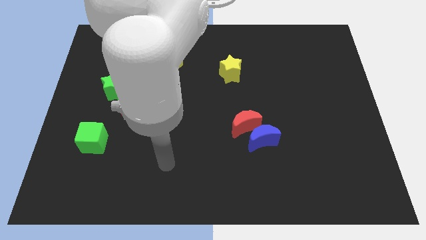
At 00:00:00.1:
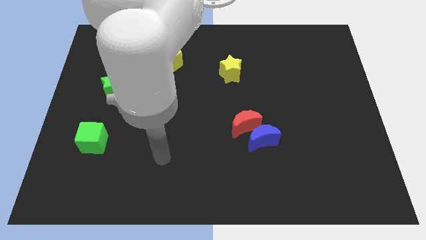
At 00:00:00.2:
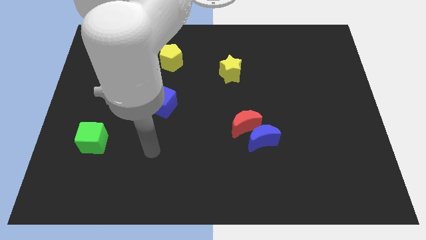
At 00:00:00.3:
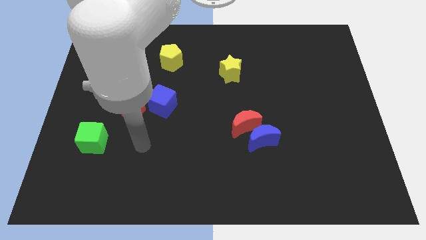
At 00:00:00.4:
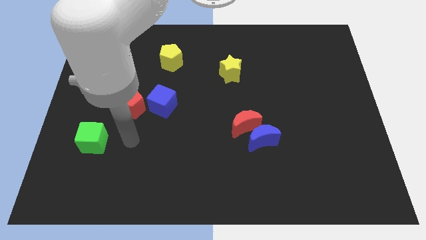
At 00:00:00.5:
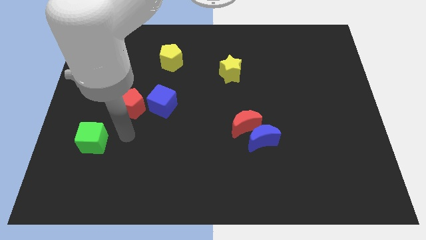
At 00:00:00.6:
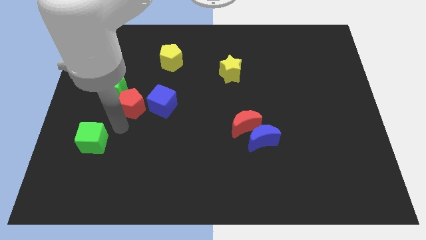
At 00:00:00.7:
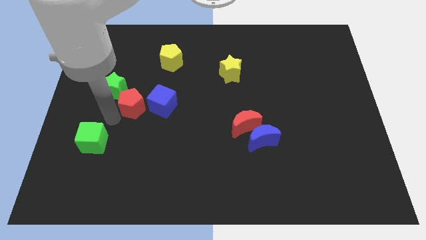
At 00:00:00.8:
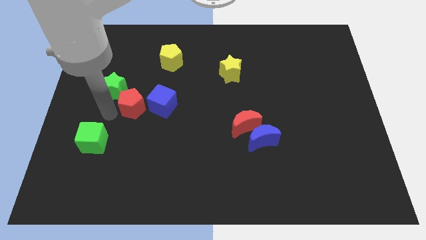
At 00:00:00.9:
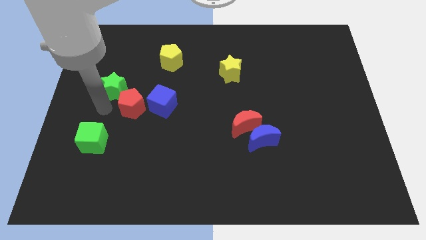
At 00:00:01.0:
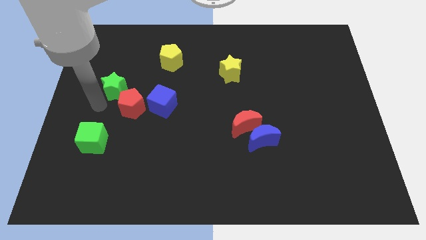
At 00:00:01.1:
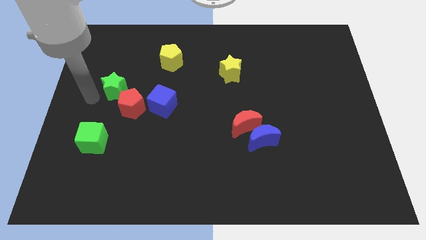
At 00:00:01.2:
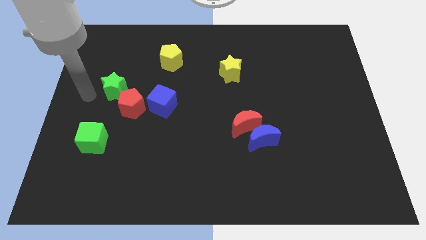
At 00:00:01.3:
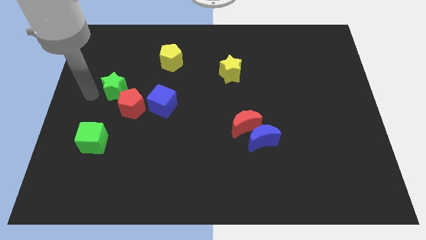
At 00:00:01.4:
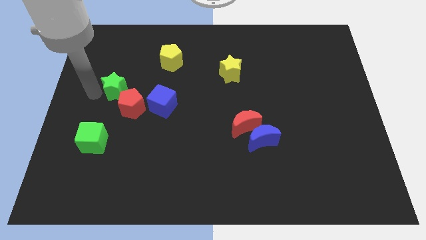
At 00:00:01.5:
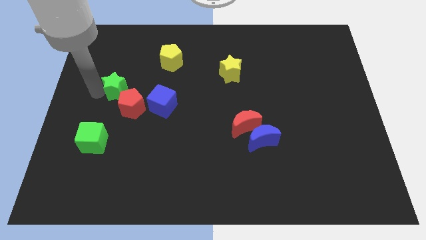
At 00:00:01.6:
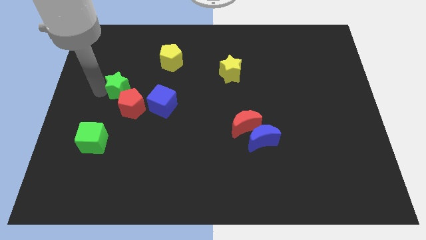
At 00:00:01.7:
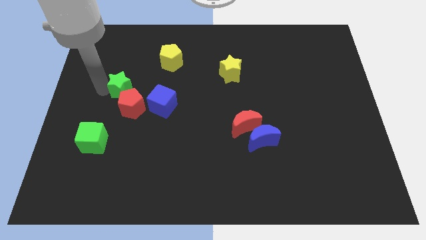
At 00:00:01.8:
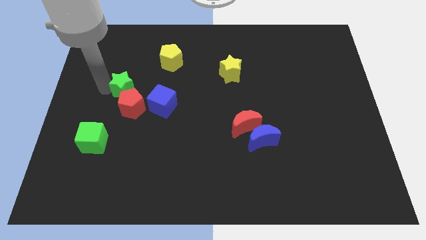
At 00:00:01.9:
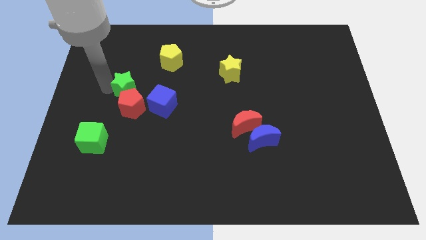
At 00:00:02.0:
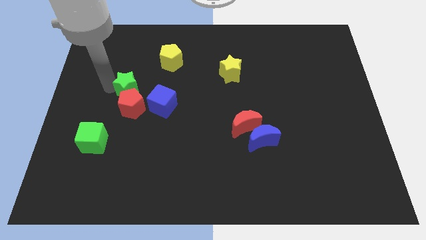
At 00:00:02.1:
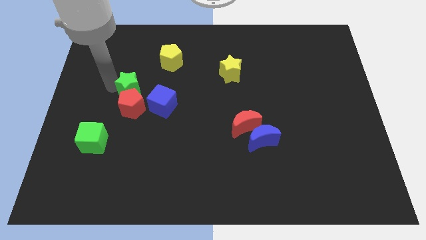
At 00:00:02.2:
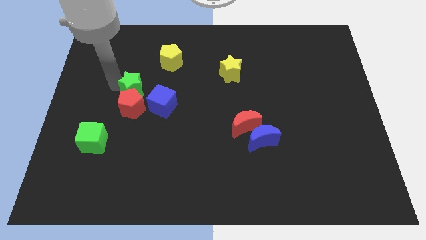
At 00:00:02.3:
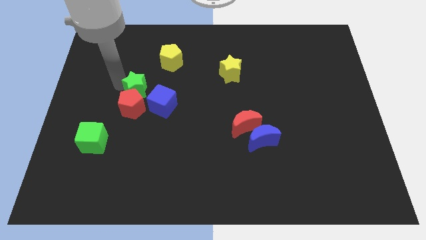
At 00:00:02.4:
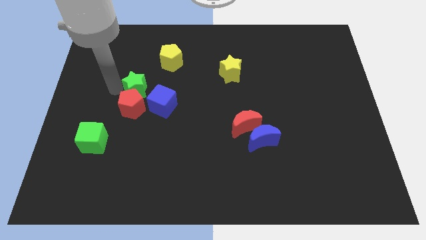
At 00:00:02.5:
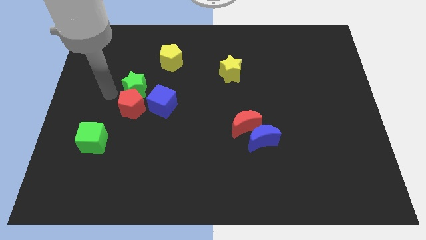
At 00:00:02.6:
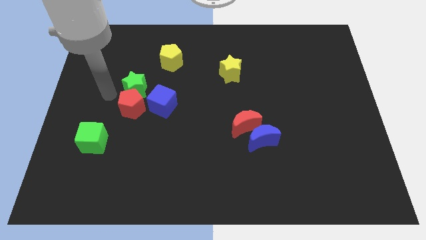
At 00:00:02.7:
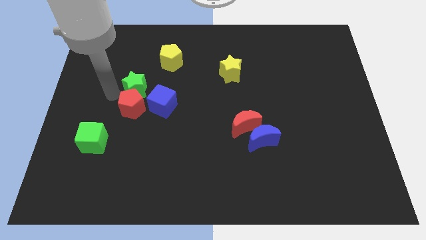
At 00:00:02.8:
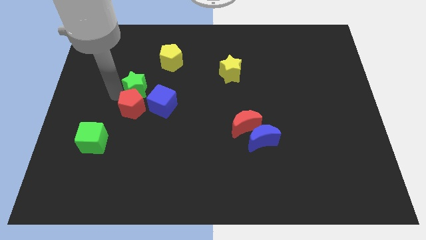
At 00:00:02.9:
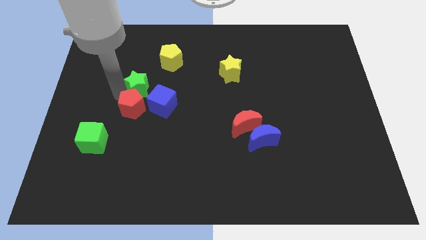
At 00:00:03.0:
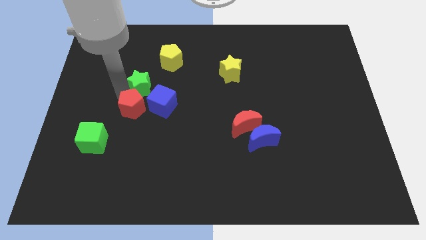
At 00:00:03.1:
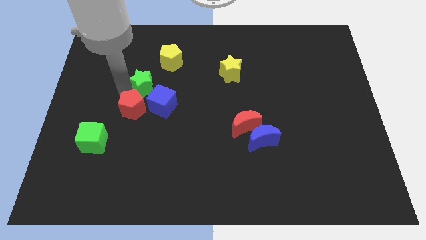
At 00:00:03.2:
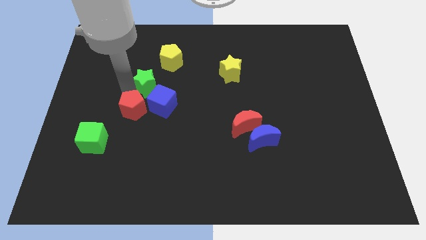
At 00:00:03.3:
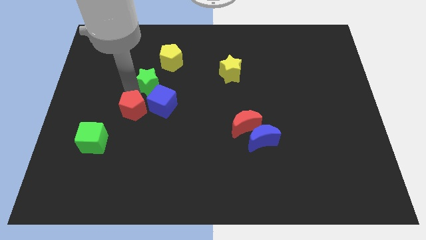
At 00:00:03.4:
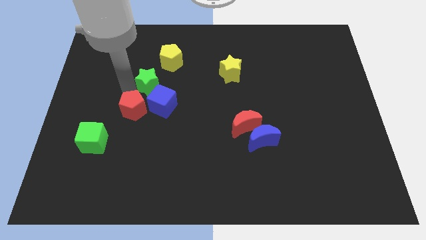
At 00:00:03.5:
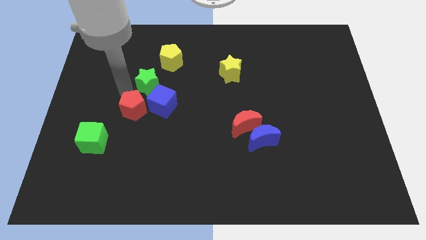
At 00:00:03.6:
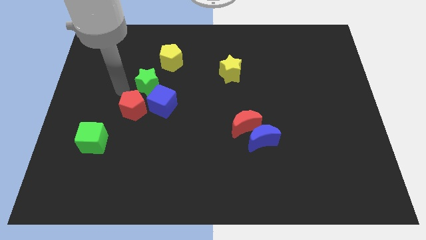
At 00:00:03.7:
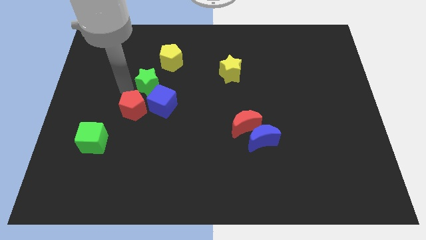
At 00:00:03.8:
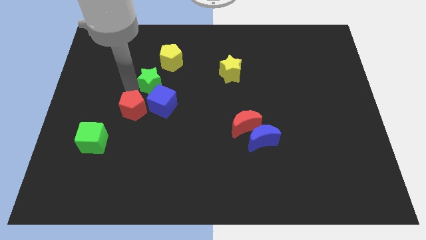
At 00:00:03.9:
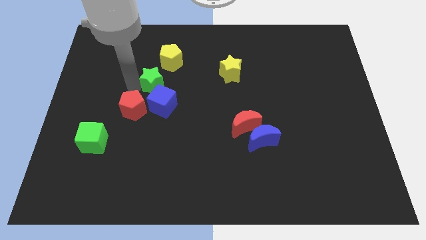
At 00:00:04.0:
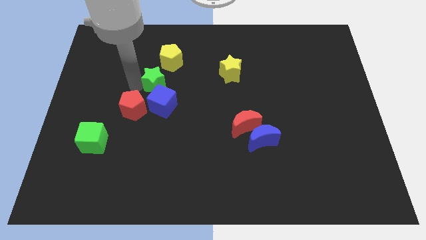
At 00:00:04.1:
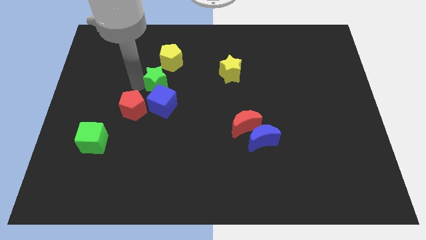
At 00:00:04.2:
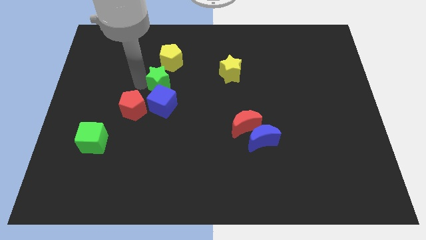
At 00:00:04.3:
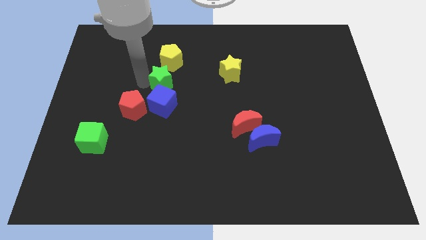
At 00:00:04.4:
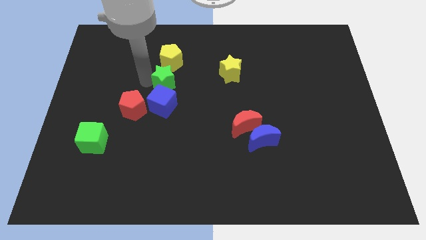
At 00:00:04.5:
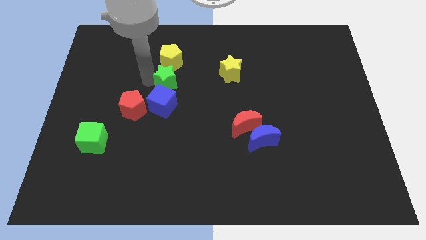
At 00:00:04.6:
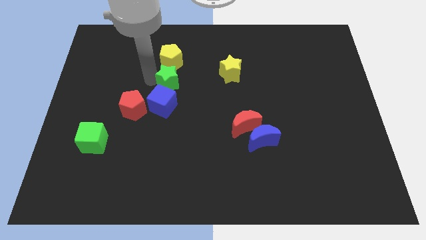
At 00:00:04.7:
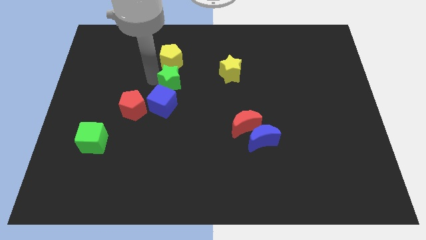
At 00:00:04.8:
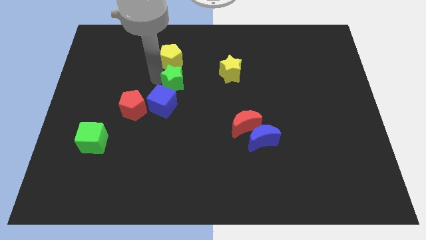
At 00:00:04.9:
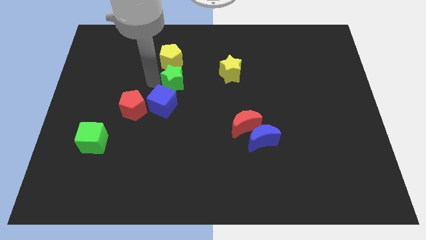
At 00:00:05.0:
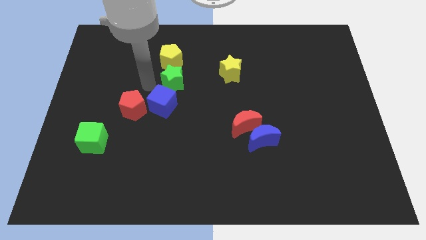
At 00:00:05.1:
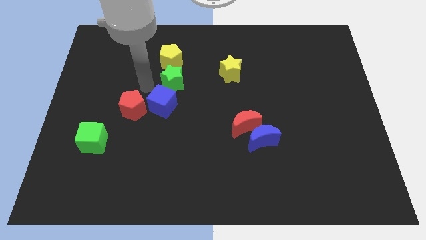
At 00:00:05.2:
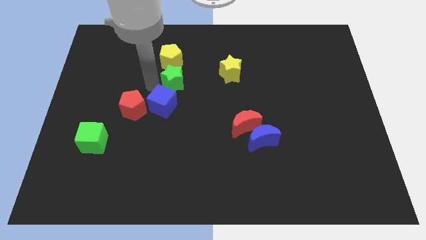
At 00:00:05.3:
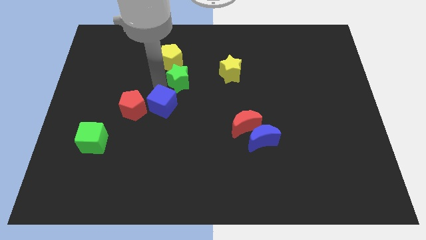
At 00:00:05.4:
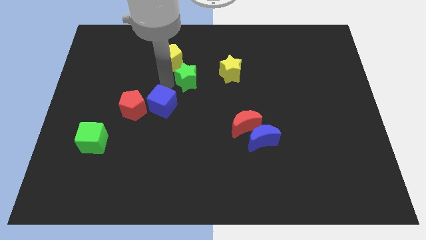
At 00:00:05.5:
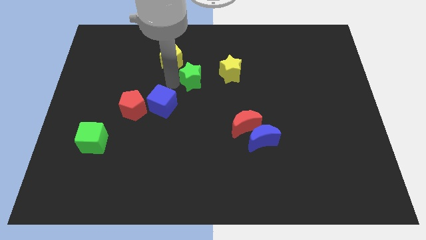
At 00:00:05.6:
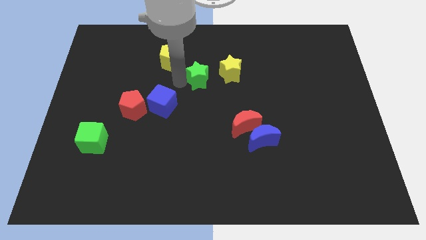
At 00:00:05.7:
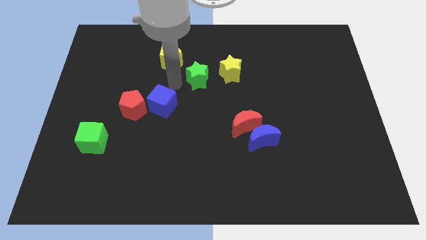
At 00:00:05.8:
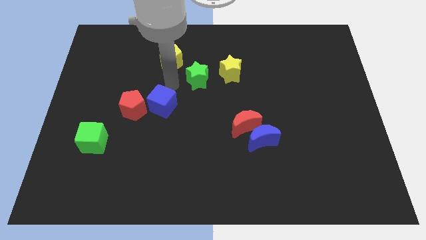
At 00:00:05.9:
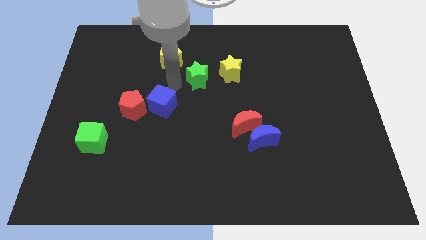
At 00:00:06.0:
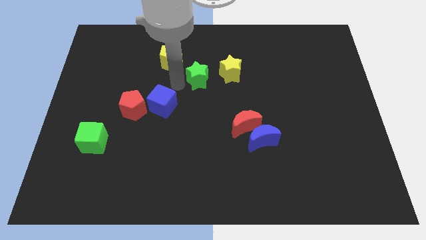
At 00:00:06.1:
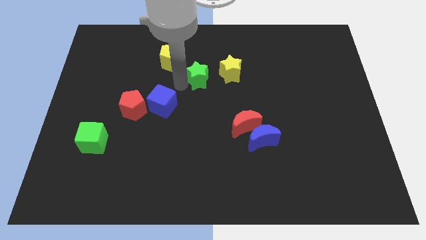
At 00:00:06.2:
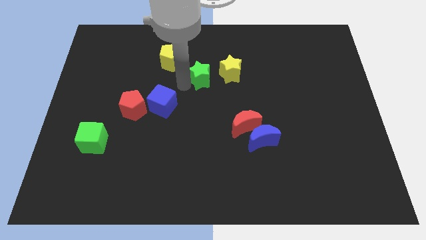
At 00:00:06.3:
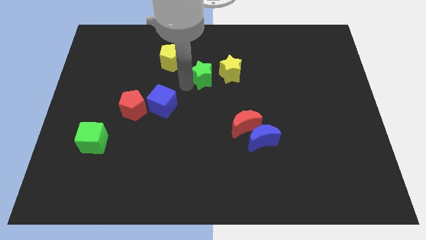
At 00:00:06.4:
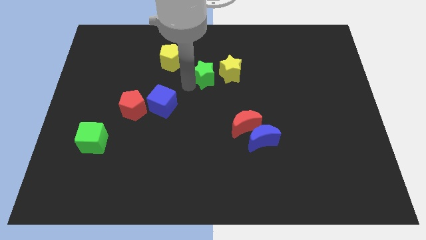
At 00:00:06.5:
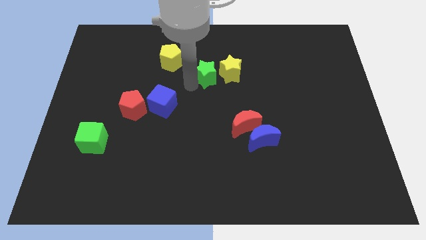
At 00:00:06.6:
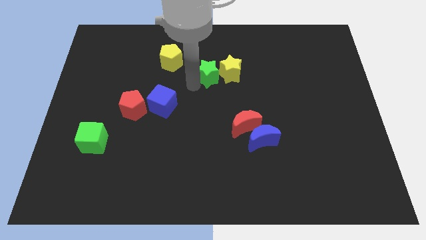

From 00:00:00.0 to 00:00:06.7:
move the green star to the yellow star

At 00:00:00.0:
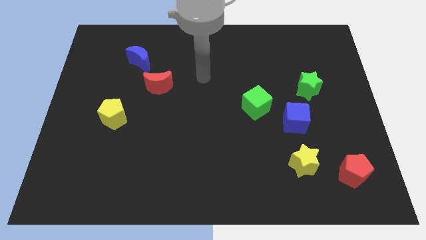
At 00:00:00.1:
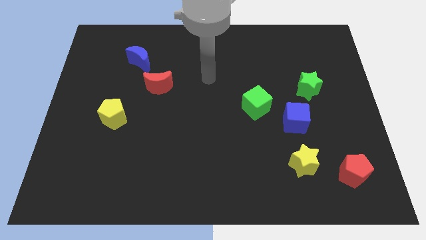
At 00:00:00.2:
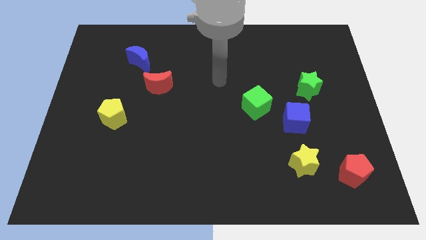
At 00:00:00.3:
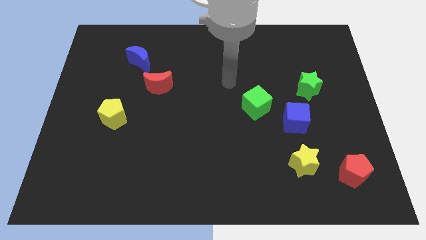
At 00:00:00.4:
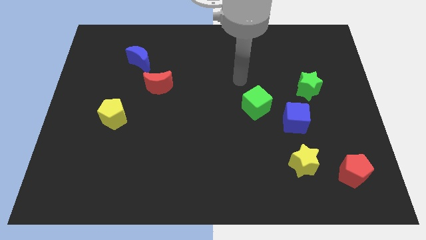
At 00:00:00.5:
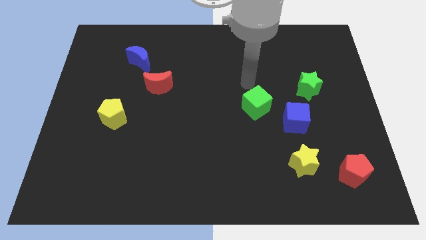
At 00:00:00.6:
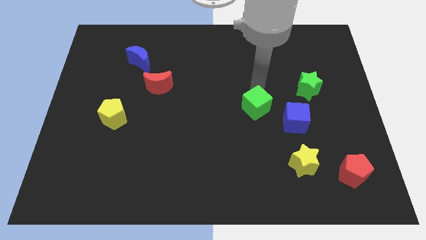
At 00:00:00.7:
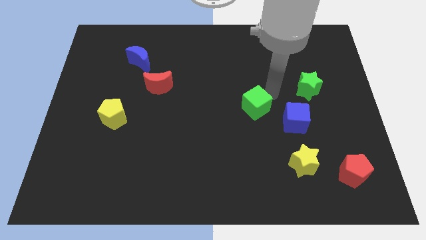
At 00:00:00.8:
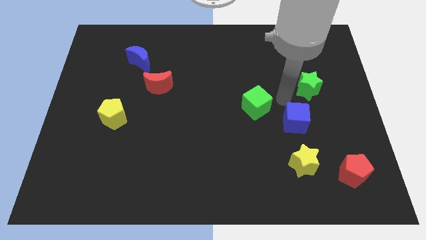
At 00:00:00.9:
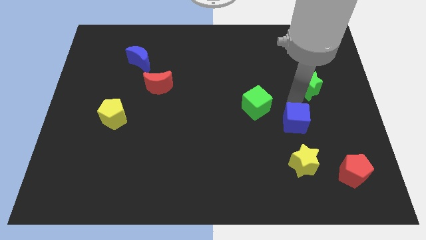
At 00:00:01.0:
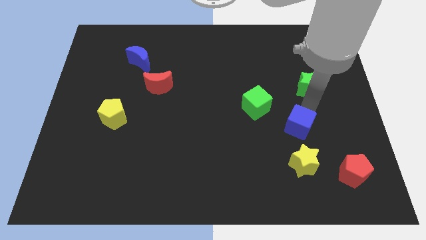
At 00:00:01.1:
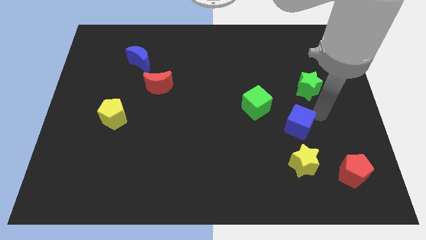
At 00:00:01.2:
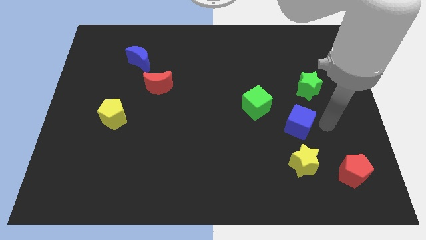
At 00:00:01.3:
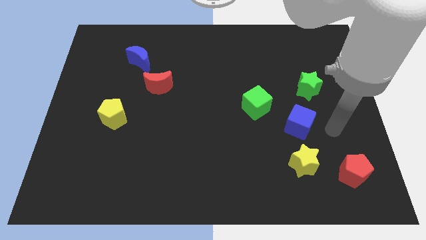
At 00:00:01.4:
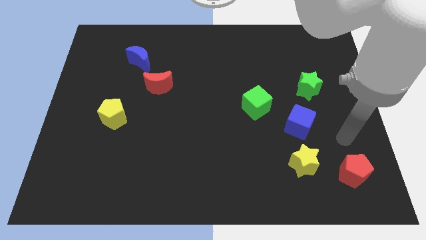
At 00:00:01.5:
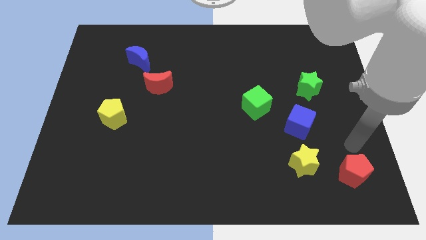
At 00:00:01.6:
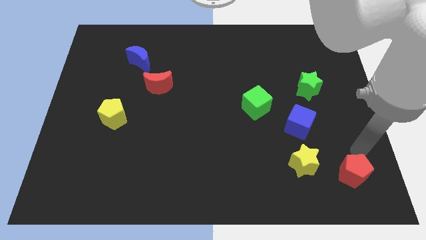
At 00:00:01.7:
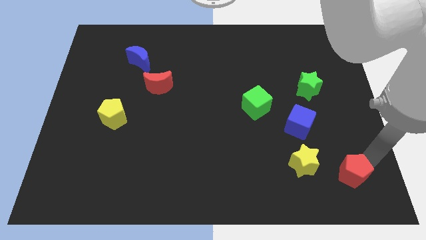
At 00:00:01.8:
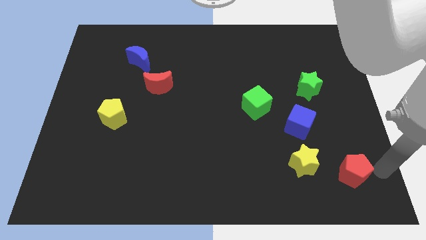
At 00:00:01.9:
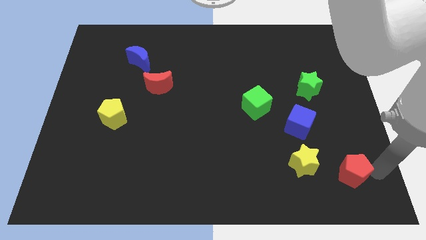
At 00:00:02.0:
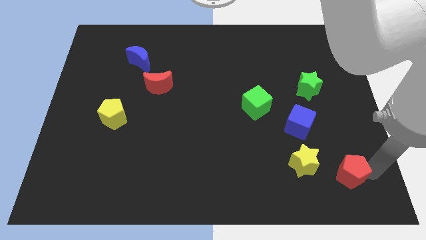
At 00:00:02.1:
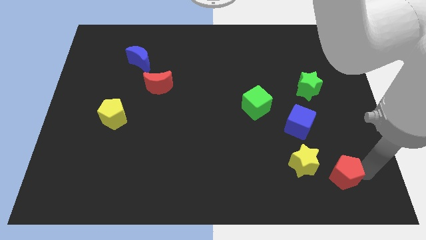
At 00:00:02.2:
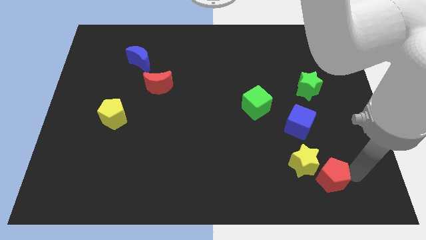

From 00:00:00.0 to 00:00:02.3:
push the red pentagon to the yellow star
